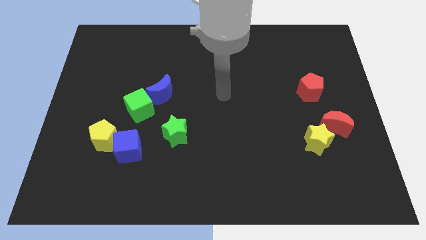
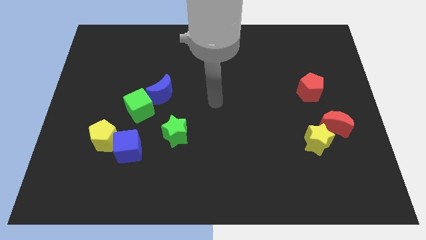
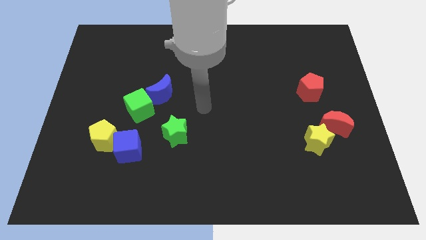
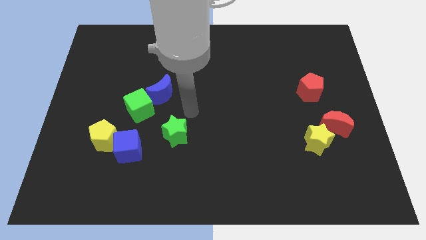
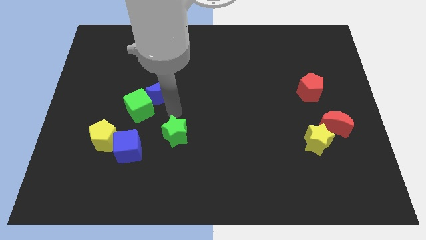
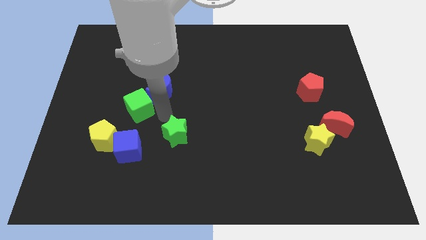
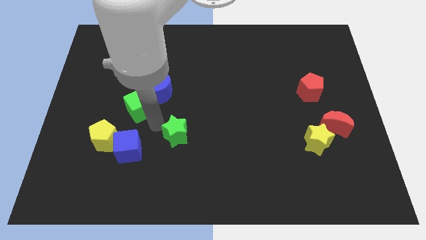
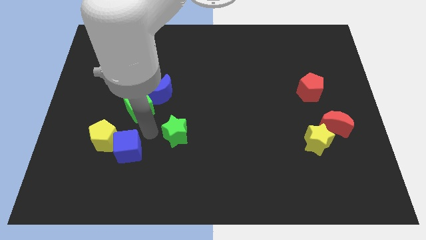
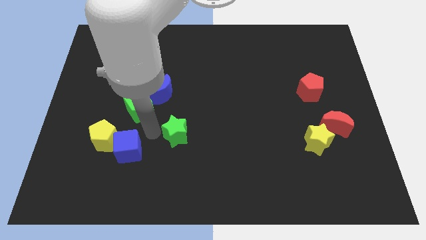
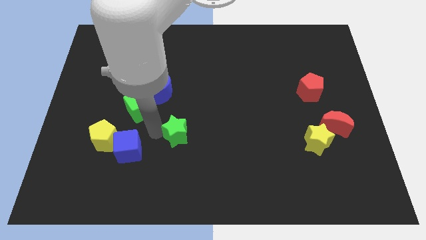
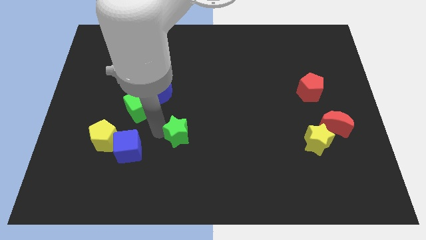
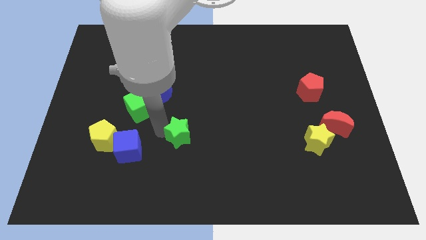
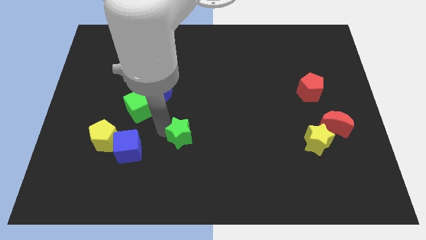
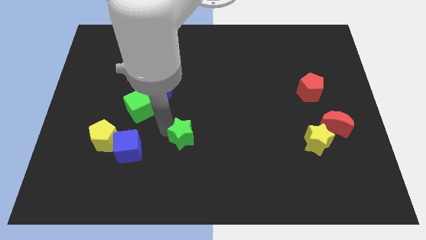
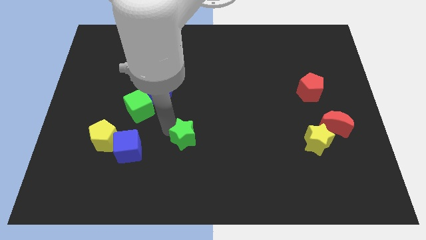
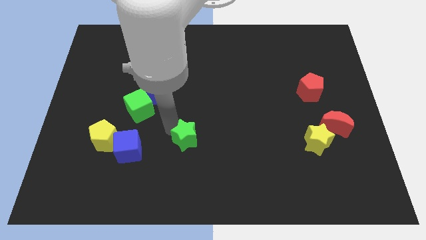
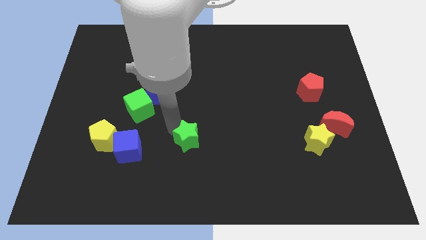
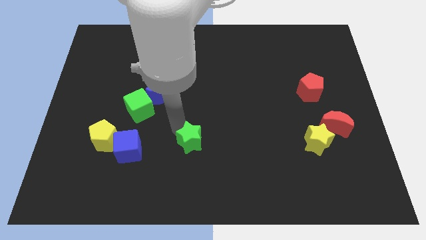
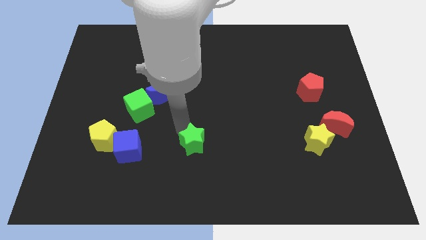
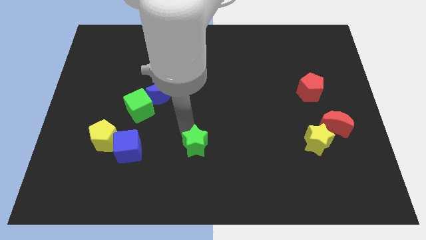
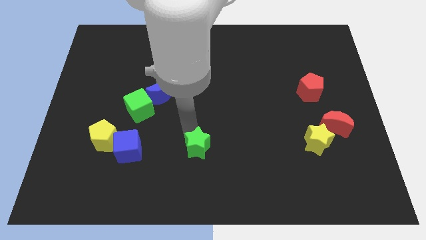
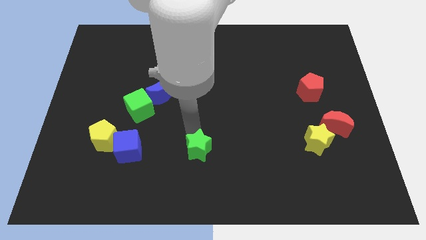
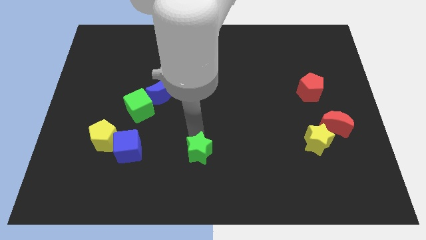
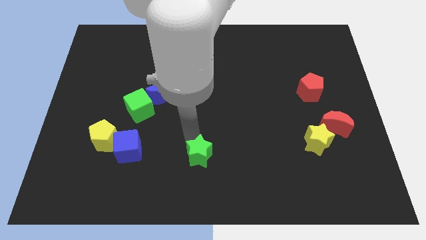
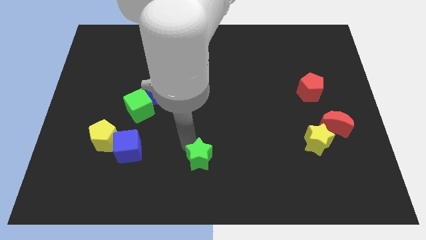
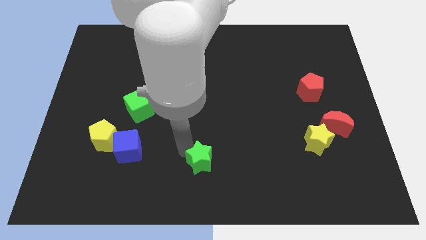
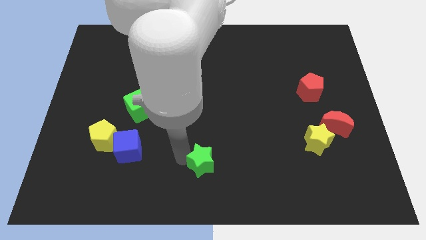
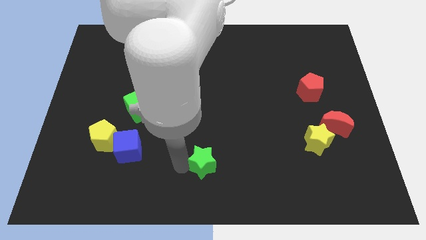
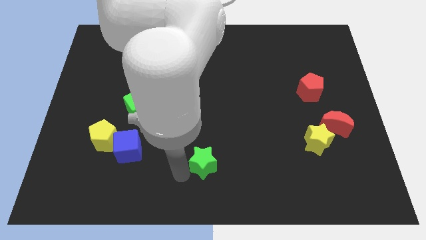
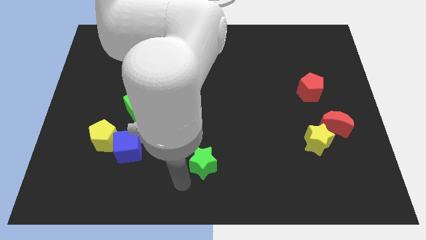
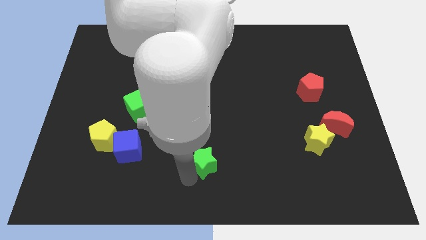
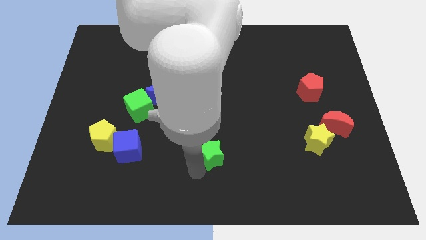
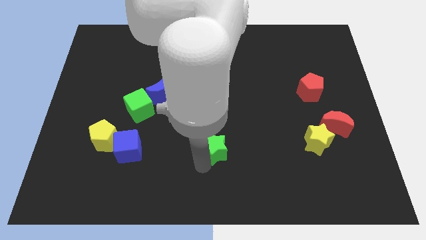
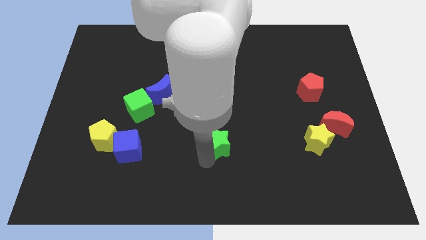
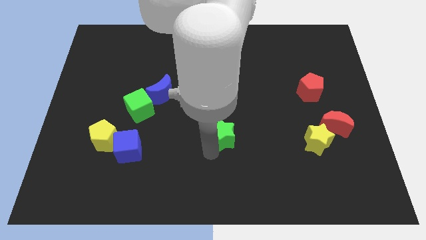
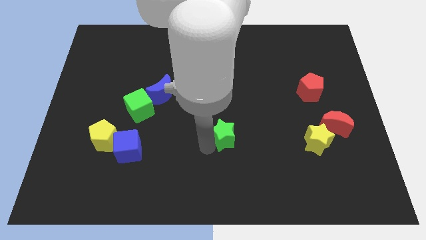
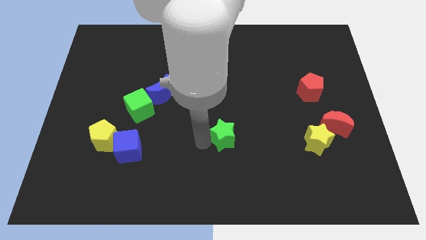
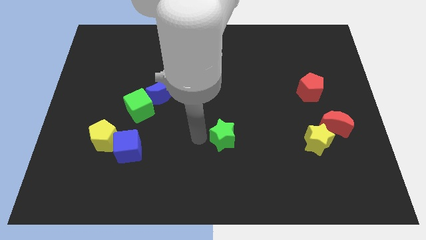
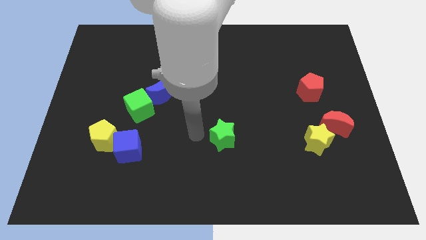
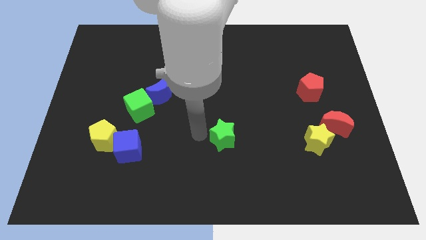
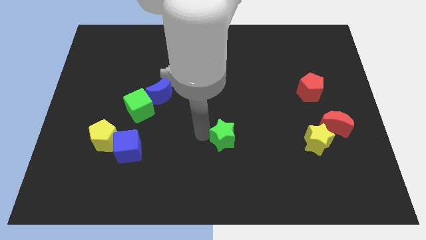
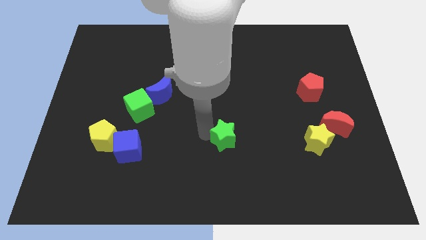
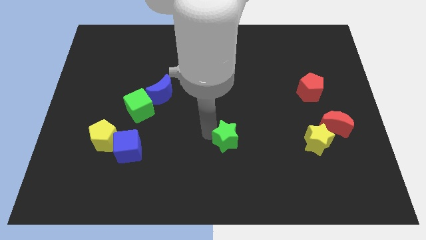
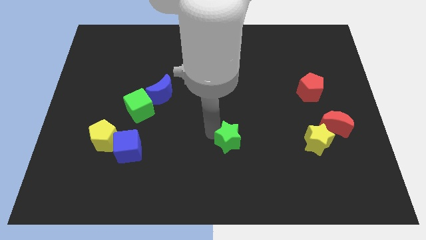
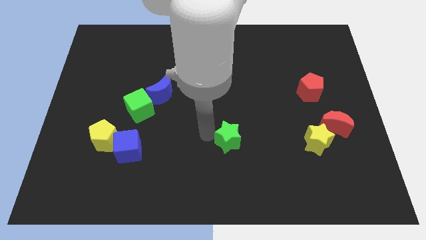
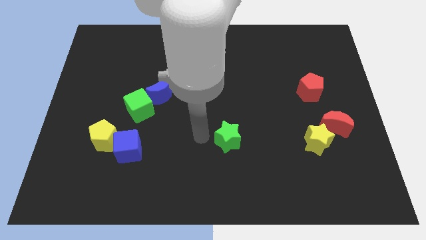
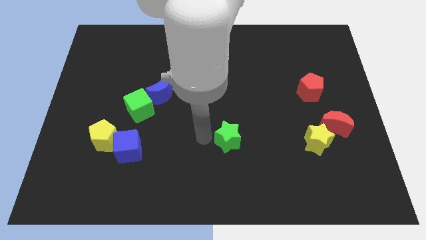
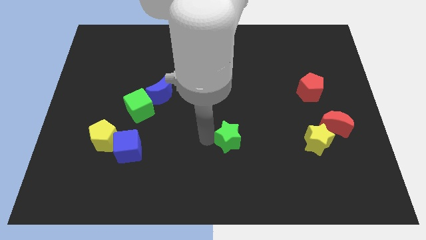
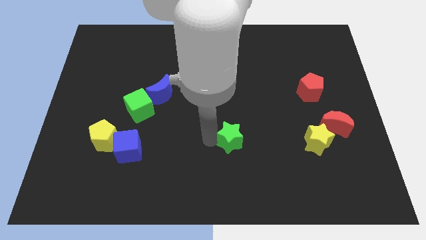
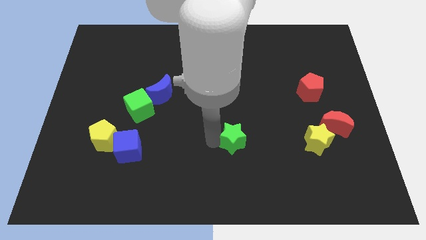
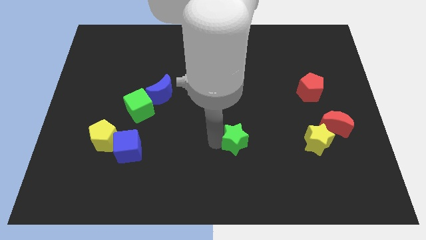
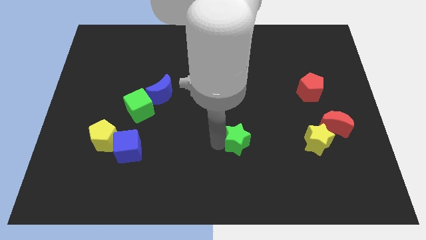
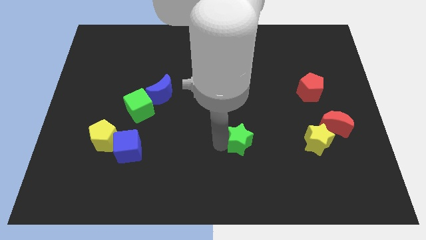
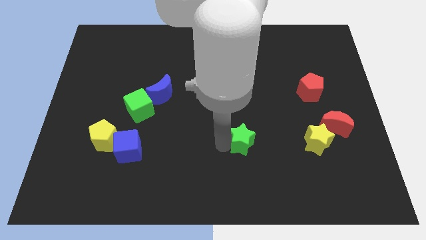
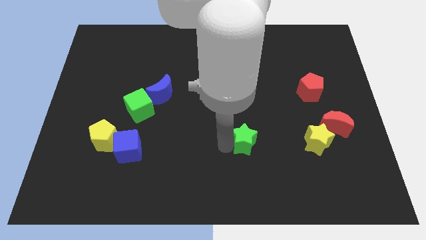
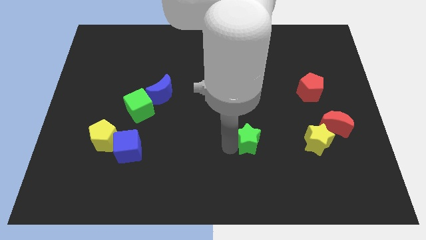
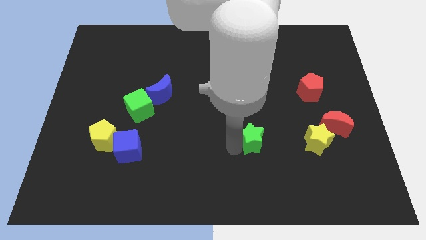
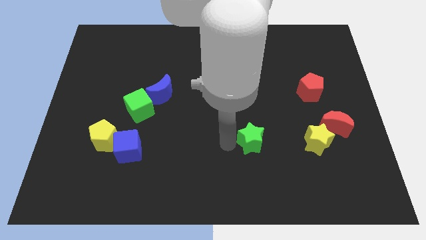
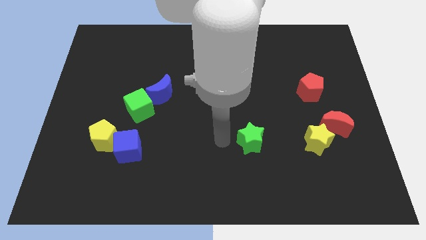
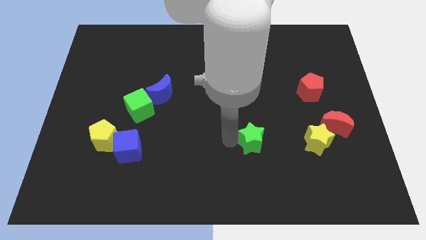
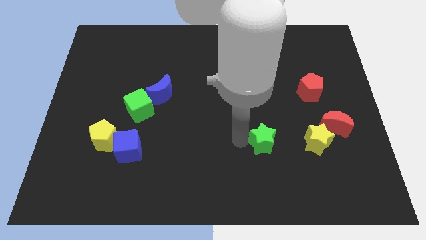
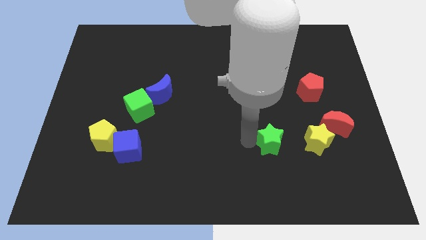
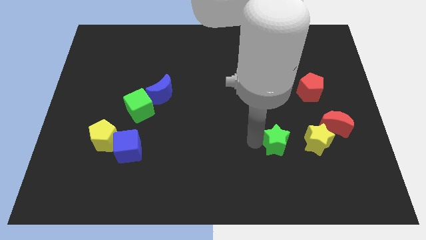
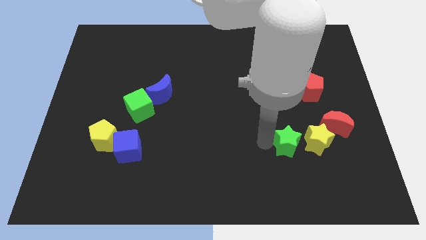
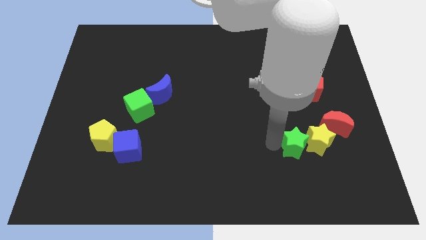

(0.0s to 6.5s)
move the green star towards the yellow star

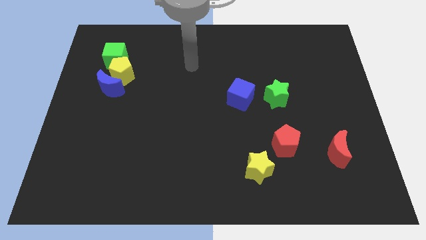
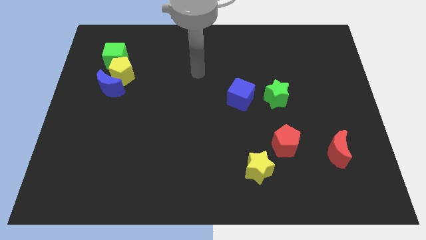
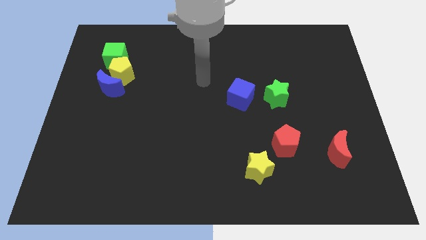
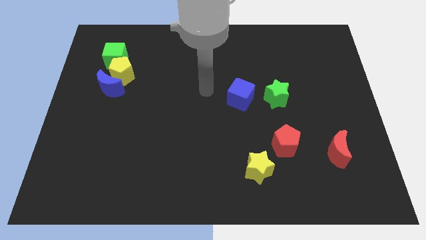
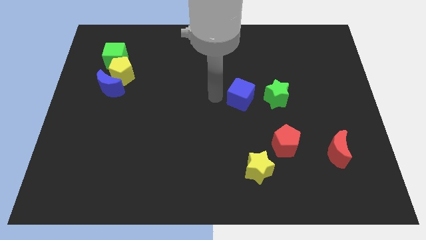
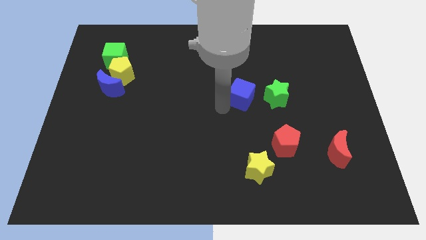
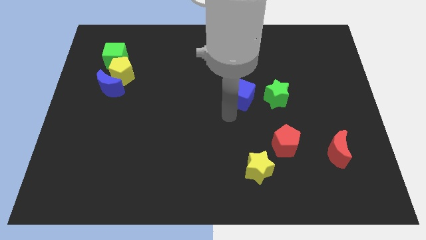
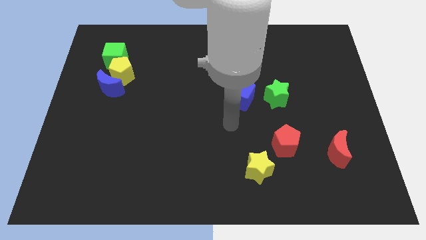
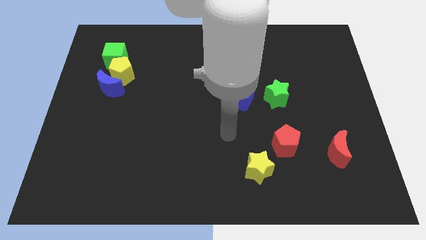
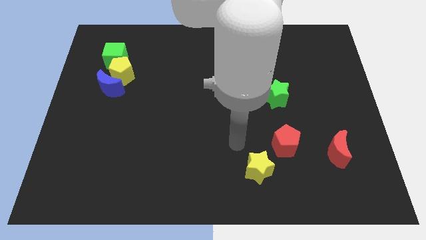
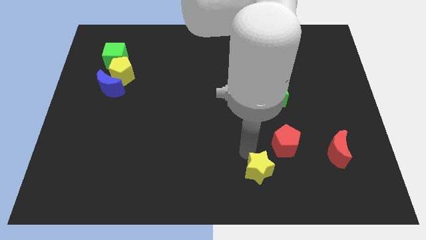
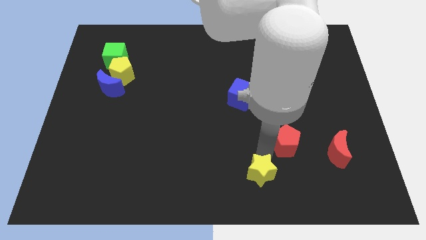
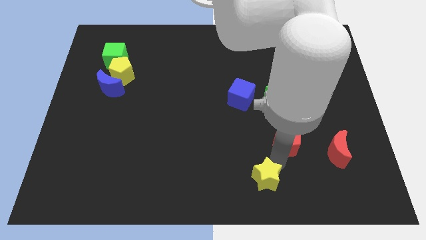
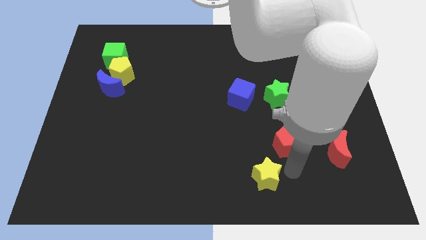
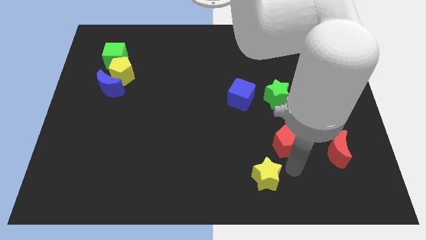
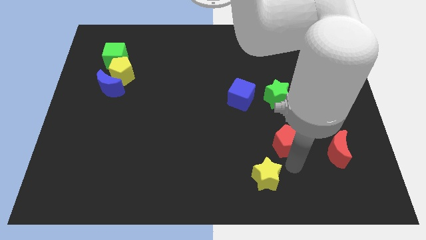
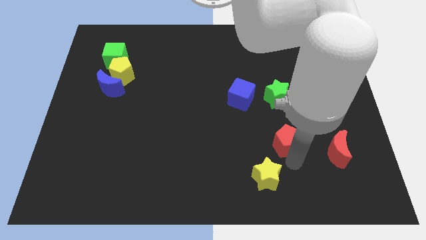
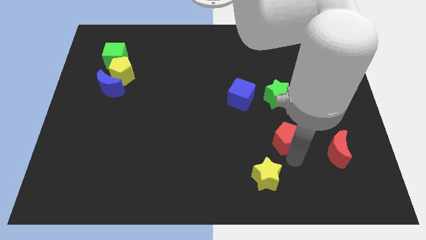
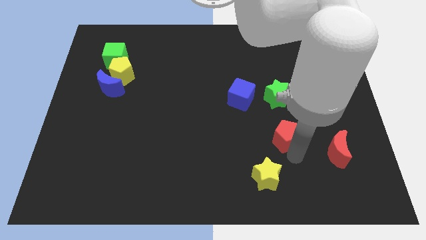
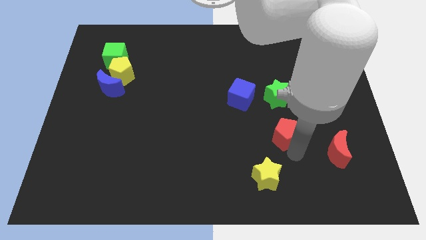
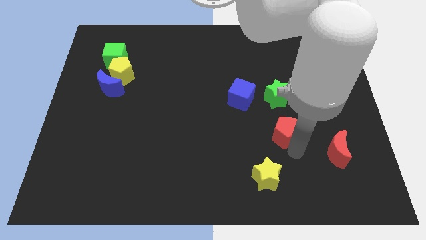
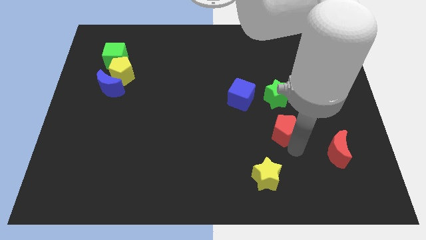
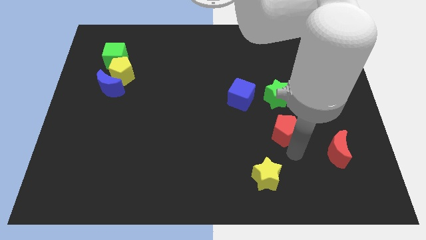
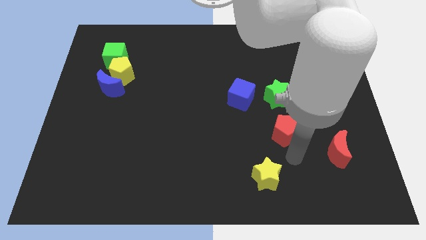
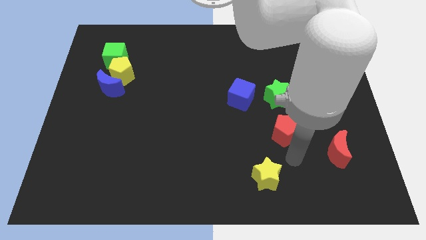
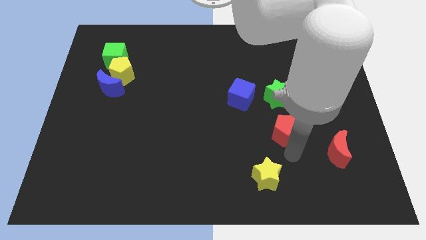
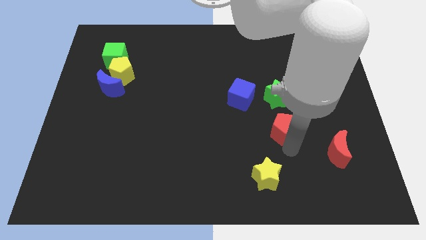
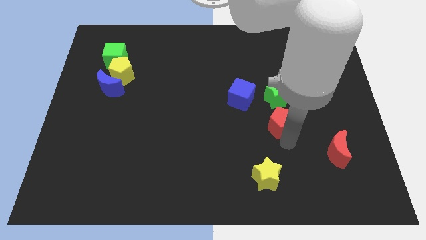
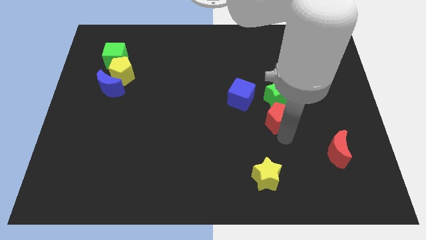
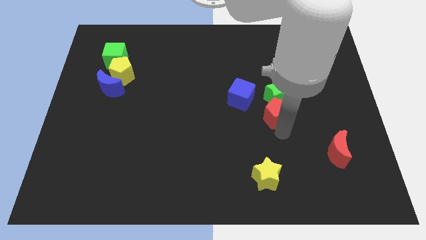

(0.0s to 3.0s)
push the red pentagon next to the green star
